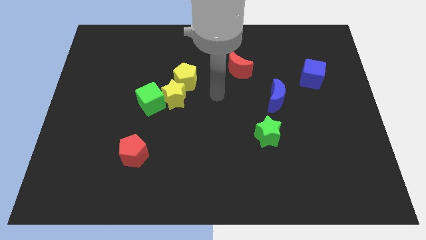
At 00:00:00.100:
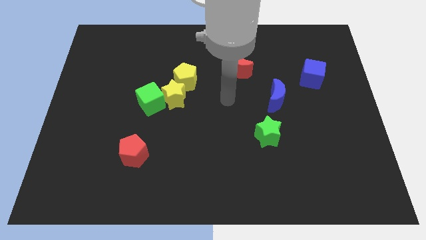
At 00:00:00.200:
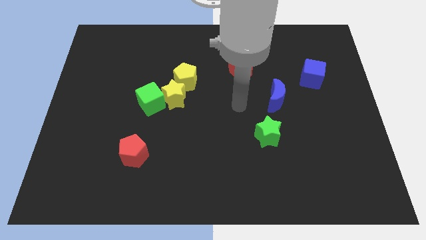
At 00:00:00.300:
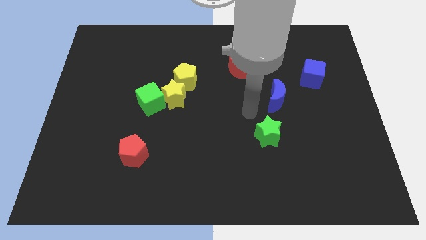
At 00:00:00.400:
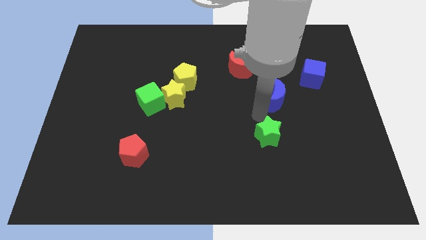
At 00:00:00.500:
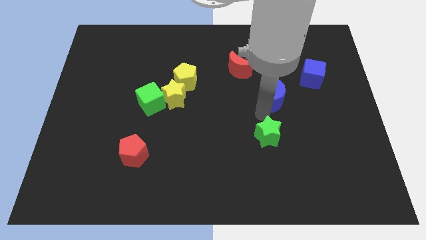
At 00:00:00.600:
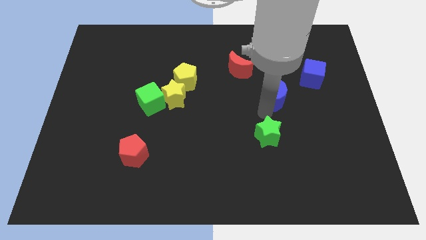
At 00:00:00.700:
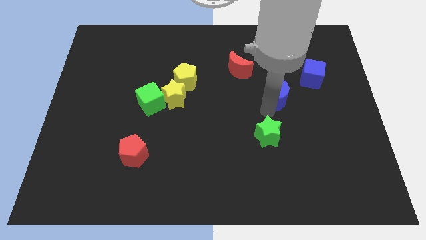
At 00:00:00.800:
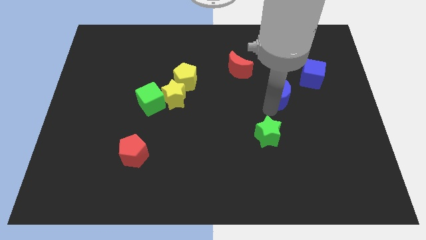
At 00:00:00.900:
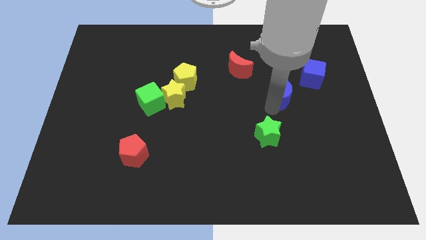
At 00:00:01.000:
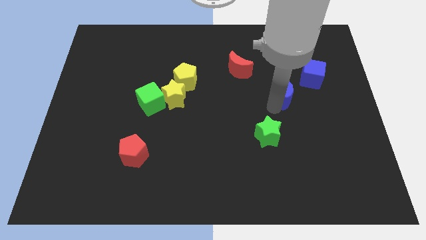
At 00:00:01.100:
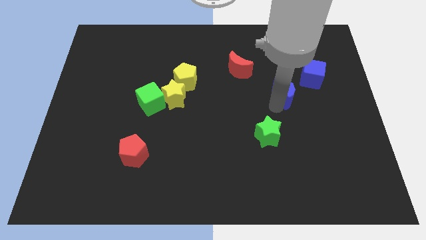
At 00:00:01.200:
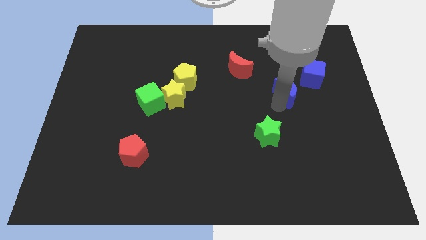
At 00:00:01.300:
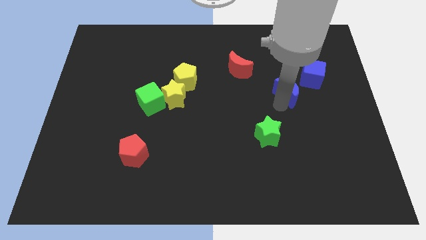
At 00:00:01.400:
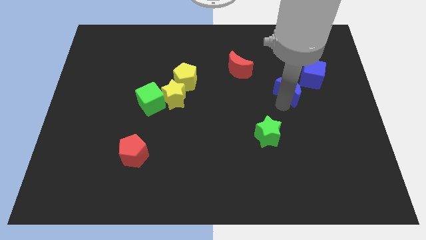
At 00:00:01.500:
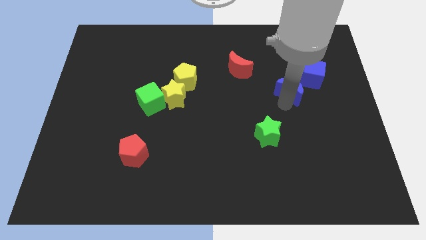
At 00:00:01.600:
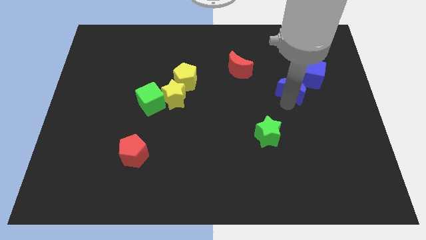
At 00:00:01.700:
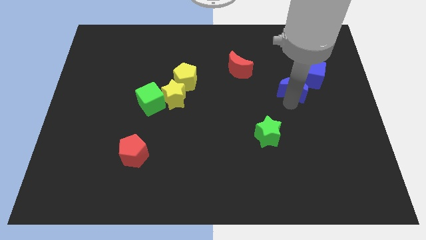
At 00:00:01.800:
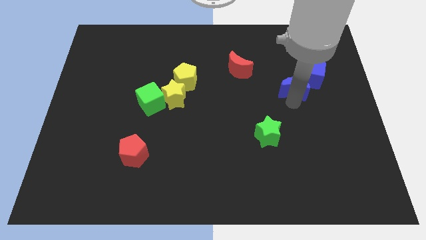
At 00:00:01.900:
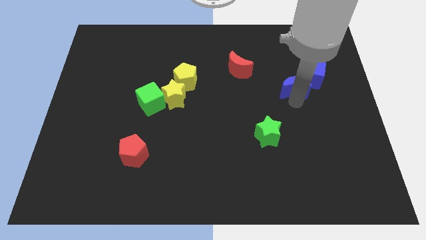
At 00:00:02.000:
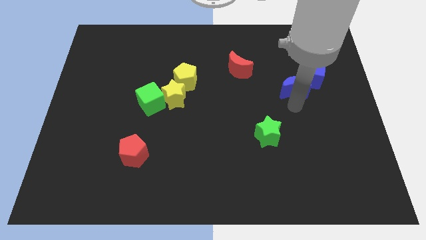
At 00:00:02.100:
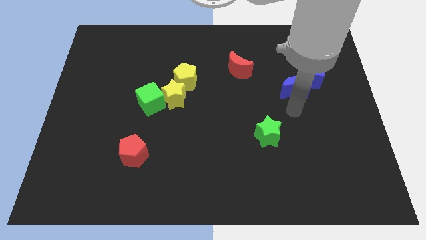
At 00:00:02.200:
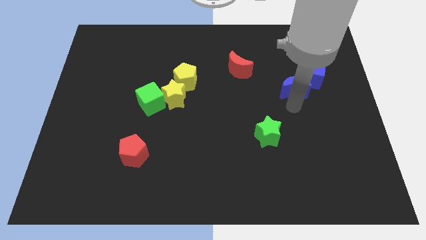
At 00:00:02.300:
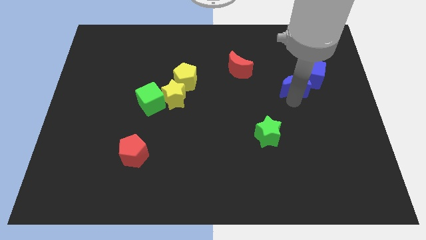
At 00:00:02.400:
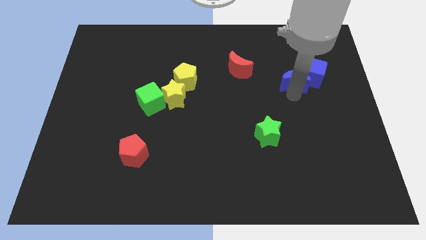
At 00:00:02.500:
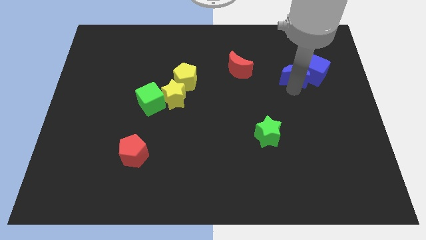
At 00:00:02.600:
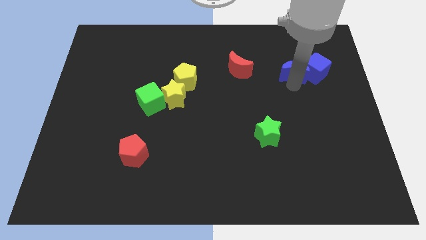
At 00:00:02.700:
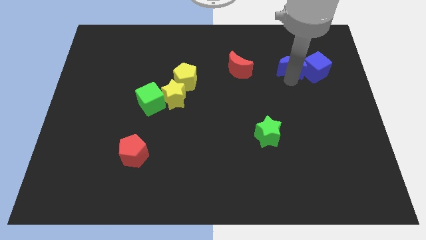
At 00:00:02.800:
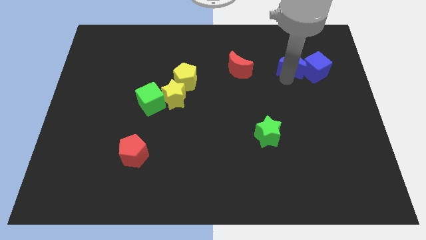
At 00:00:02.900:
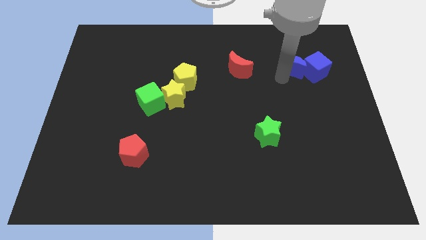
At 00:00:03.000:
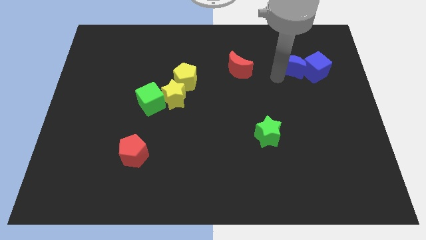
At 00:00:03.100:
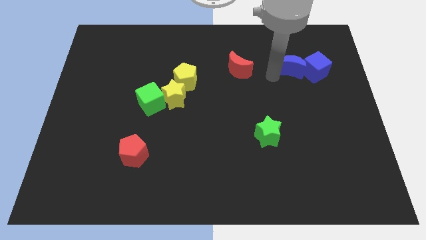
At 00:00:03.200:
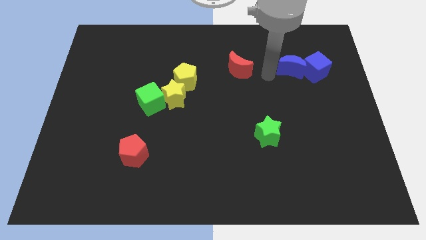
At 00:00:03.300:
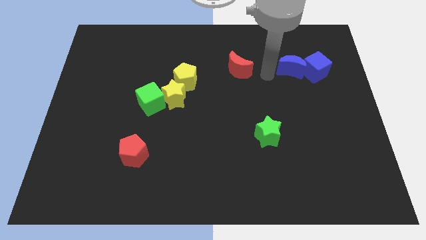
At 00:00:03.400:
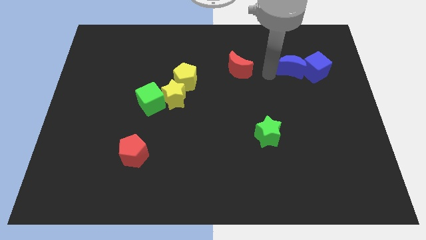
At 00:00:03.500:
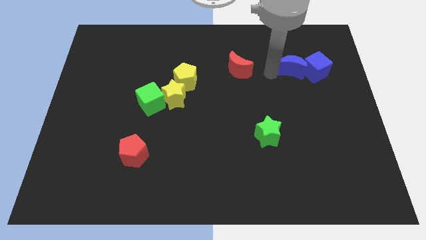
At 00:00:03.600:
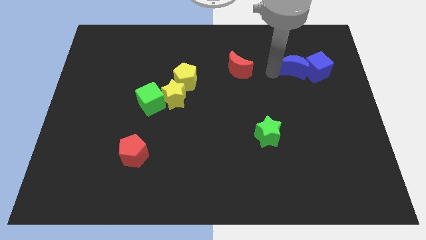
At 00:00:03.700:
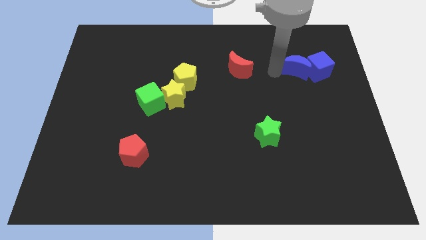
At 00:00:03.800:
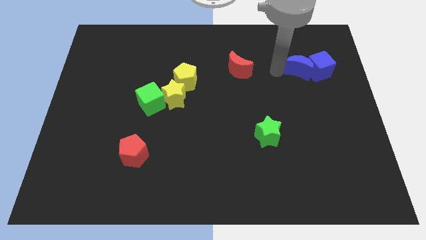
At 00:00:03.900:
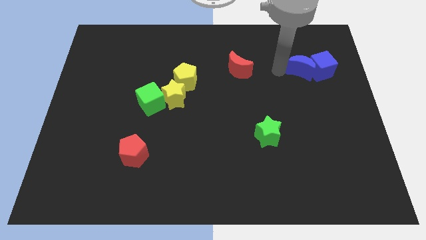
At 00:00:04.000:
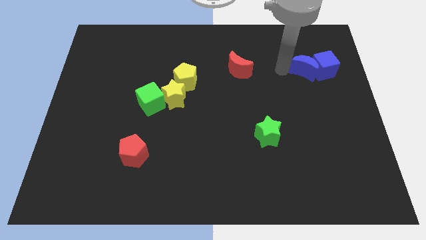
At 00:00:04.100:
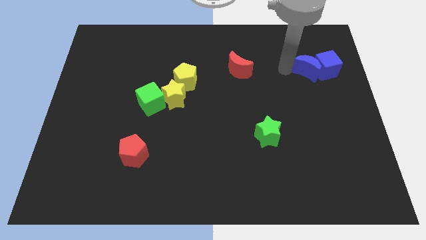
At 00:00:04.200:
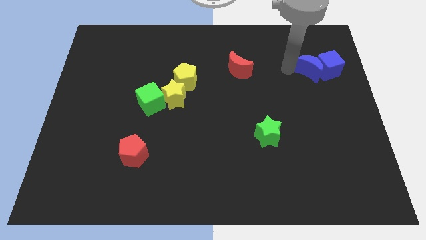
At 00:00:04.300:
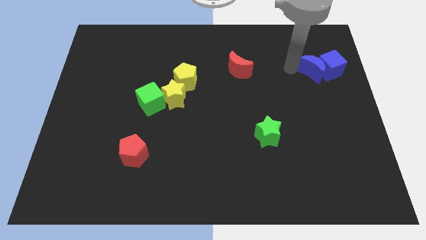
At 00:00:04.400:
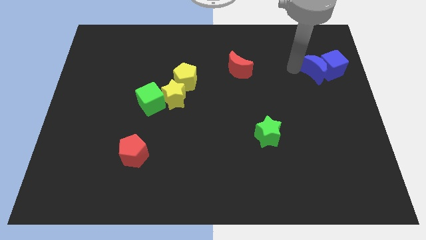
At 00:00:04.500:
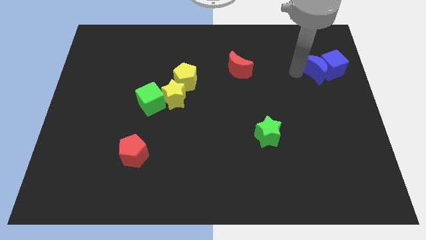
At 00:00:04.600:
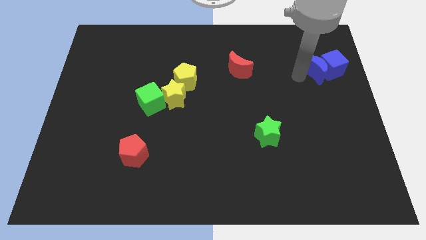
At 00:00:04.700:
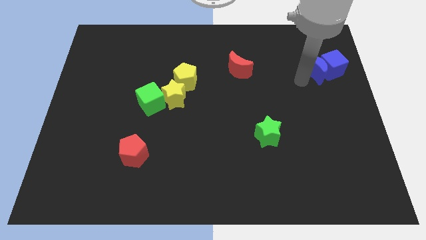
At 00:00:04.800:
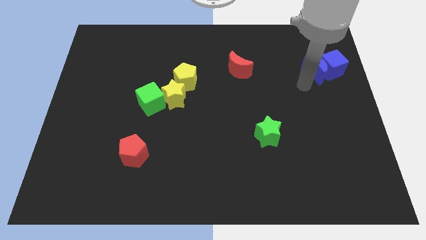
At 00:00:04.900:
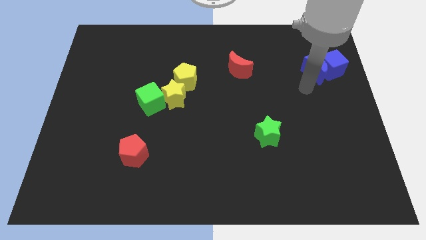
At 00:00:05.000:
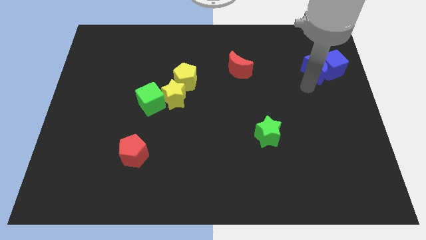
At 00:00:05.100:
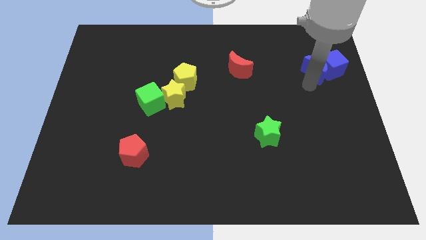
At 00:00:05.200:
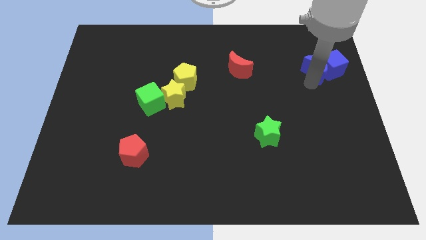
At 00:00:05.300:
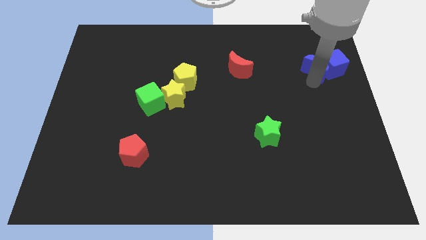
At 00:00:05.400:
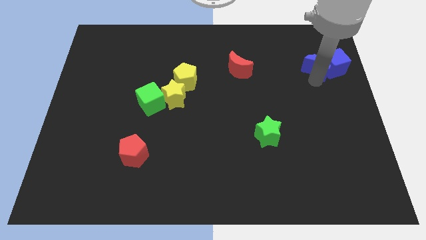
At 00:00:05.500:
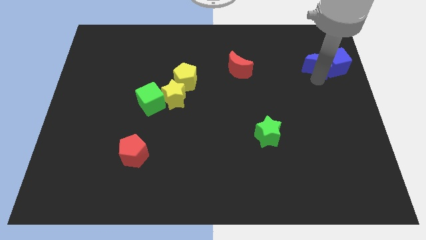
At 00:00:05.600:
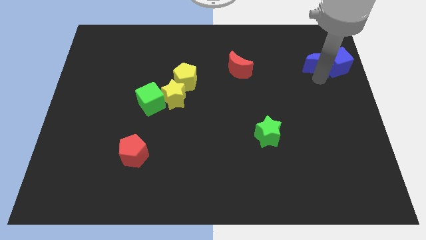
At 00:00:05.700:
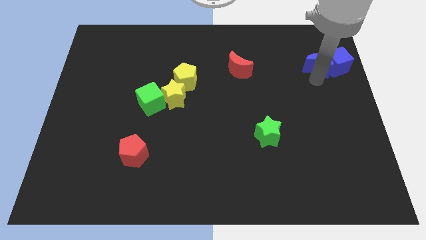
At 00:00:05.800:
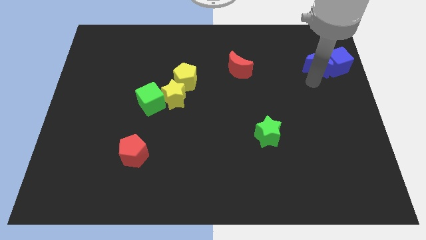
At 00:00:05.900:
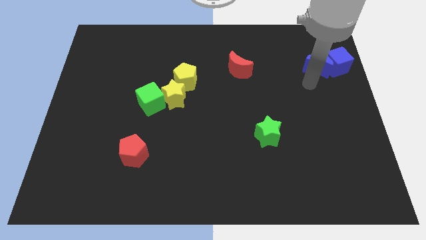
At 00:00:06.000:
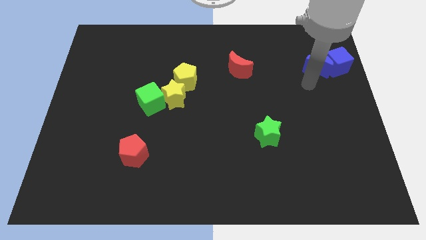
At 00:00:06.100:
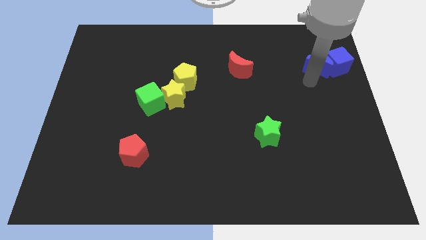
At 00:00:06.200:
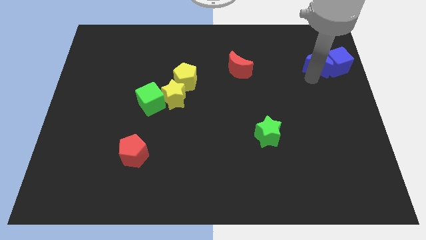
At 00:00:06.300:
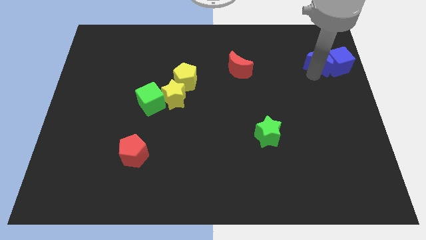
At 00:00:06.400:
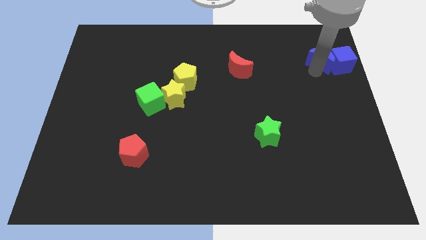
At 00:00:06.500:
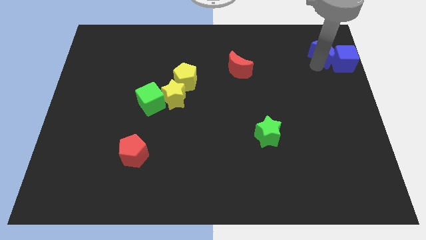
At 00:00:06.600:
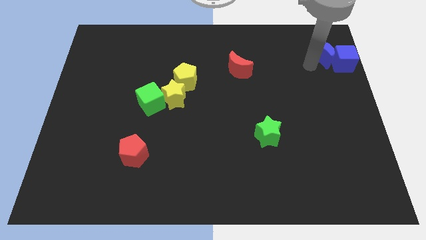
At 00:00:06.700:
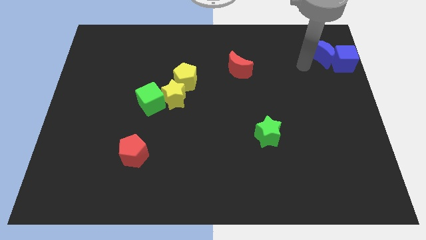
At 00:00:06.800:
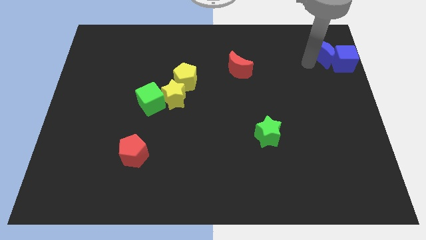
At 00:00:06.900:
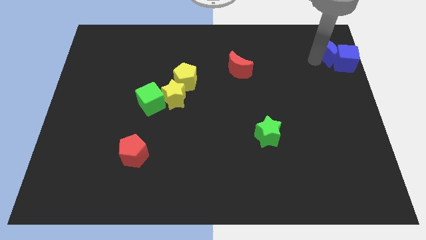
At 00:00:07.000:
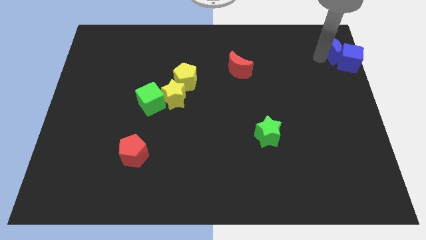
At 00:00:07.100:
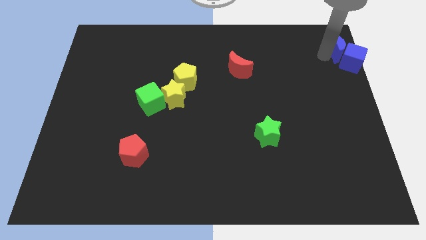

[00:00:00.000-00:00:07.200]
put the blue moon to the top right
